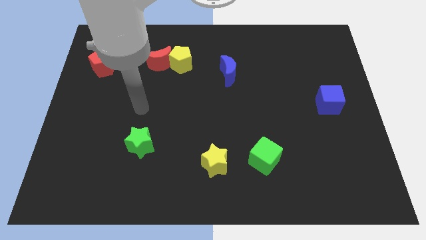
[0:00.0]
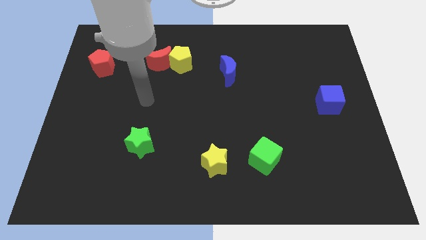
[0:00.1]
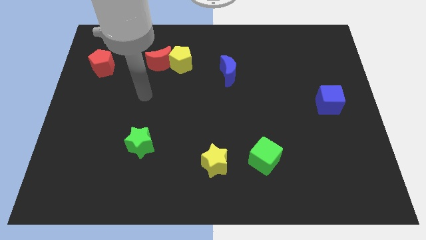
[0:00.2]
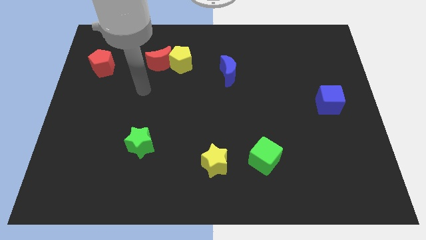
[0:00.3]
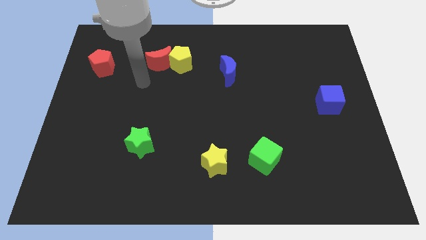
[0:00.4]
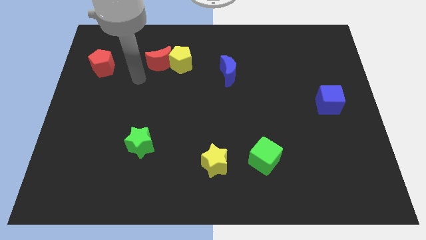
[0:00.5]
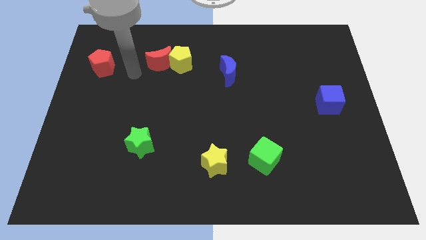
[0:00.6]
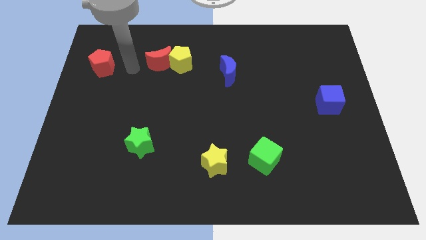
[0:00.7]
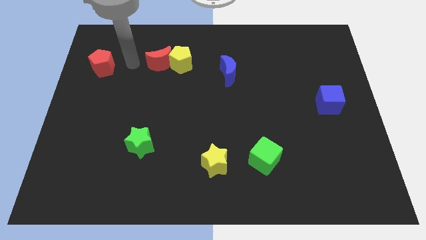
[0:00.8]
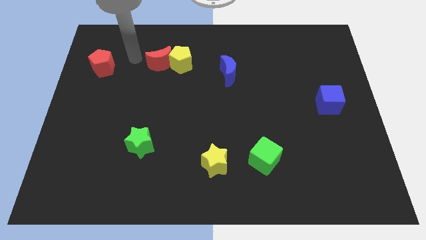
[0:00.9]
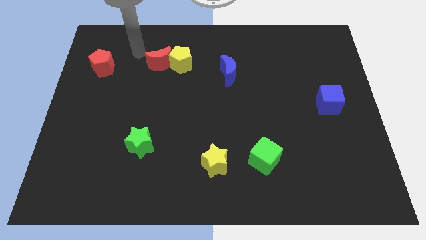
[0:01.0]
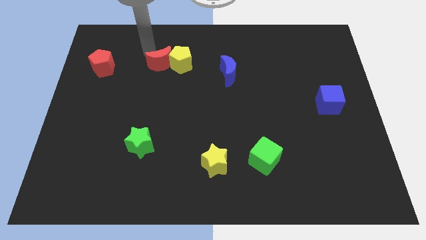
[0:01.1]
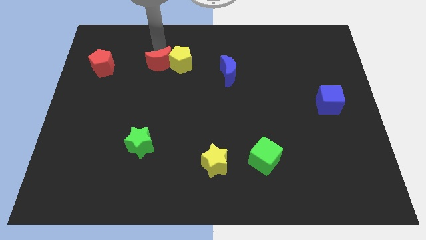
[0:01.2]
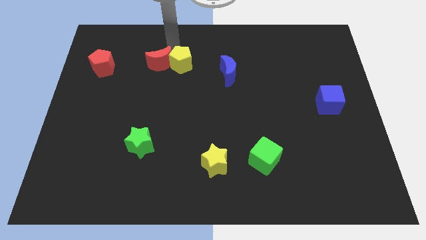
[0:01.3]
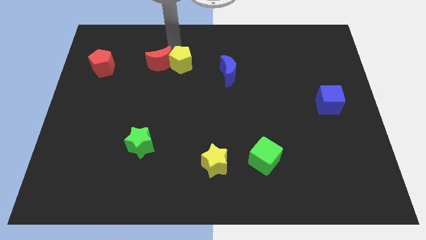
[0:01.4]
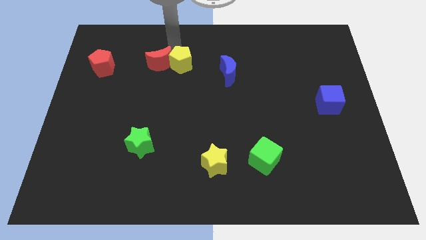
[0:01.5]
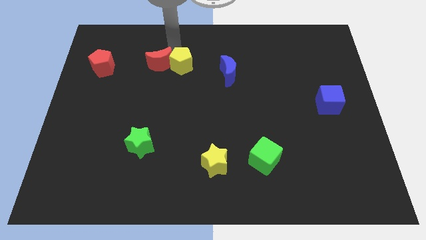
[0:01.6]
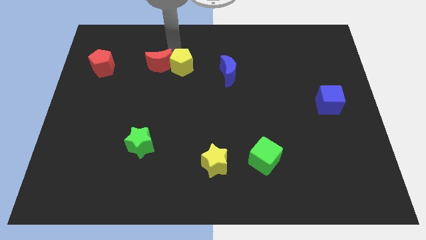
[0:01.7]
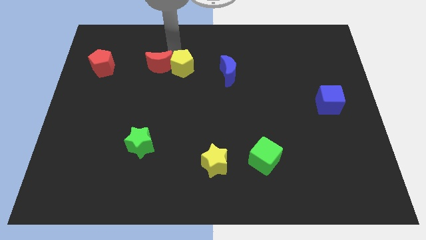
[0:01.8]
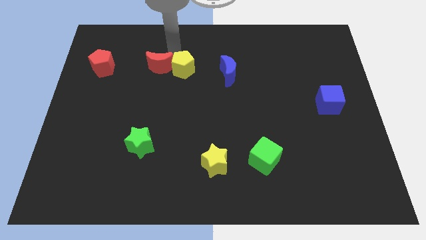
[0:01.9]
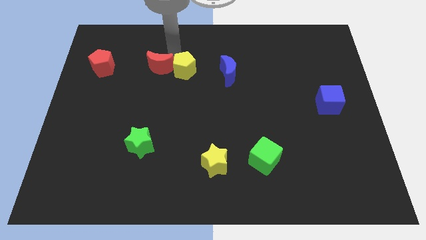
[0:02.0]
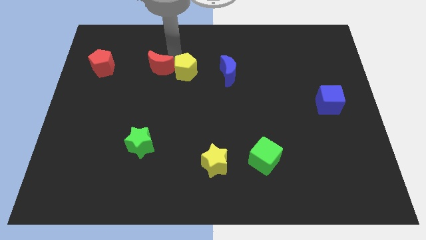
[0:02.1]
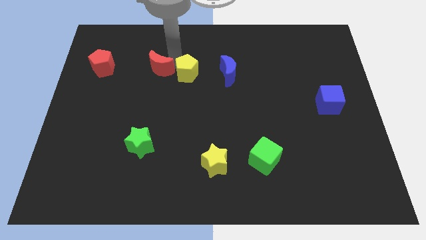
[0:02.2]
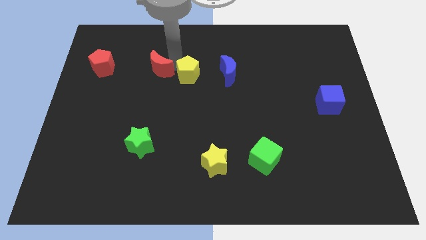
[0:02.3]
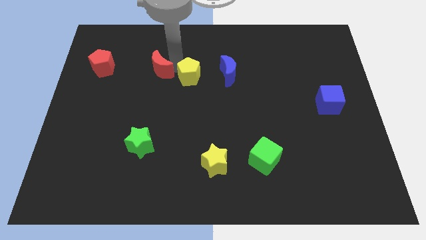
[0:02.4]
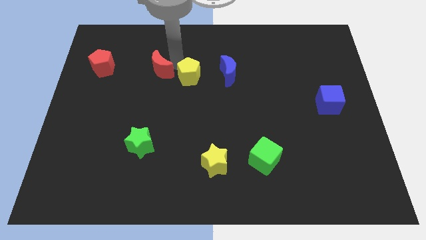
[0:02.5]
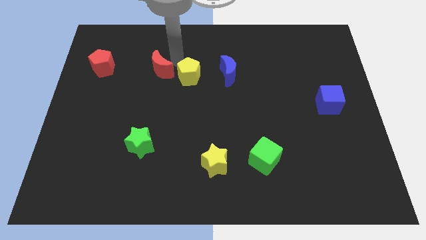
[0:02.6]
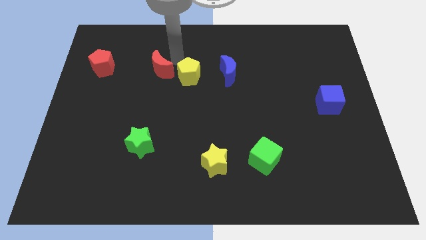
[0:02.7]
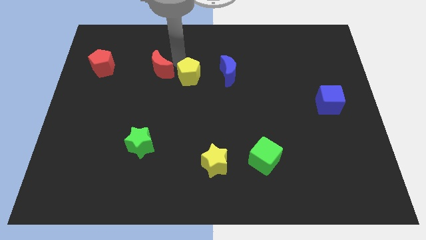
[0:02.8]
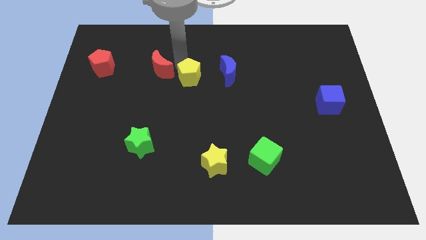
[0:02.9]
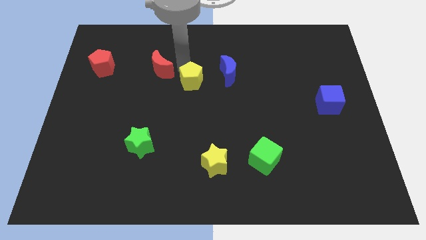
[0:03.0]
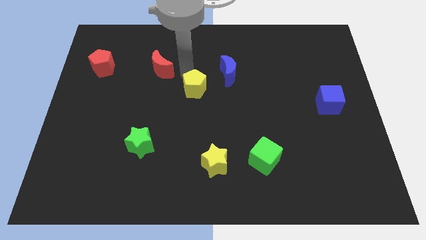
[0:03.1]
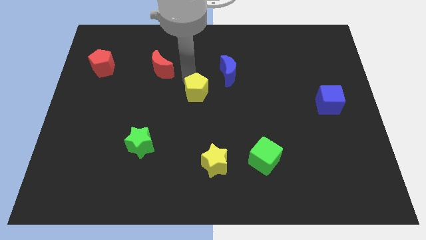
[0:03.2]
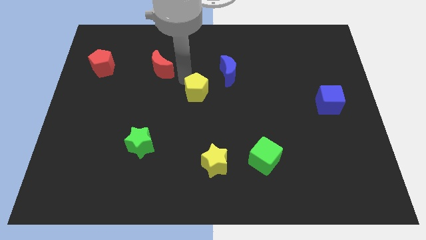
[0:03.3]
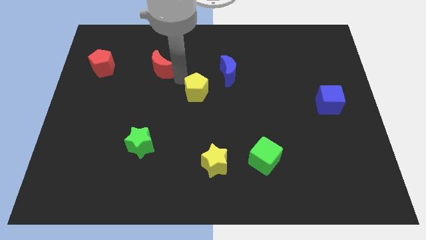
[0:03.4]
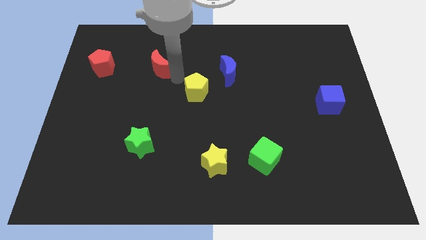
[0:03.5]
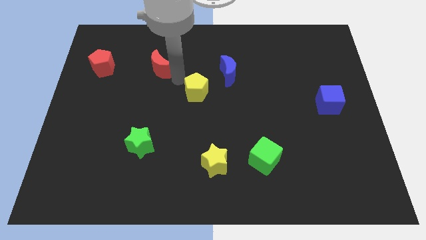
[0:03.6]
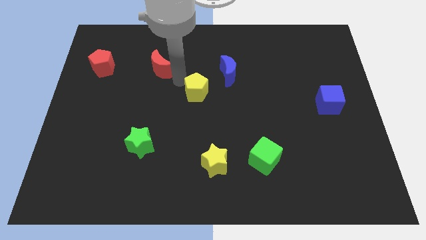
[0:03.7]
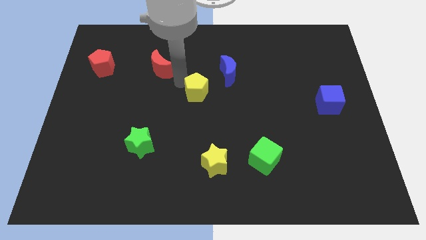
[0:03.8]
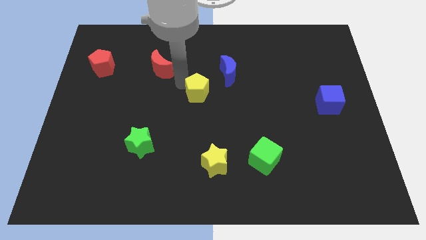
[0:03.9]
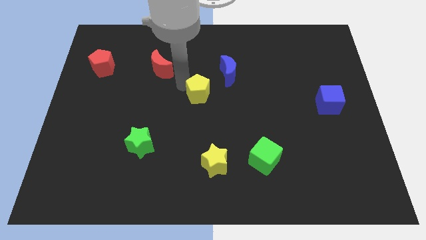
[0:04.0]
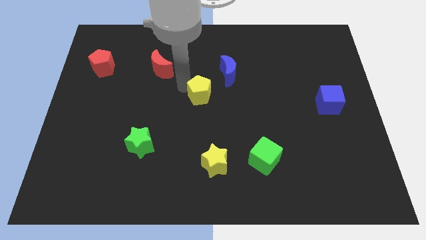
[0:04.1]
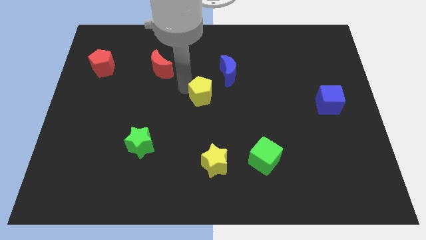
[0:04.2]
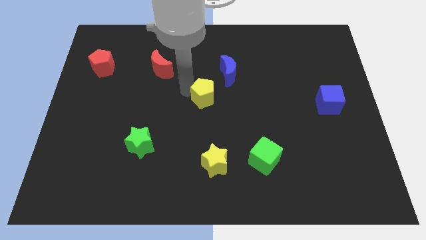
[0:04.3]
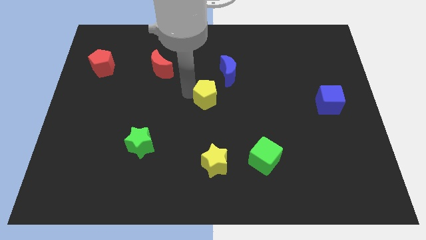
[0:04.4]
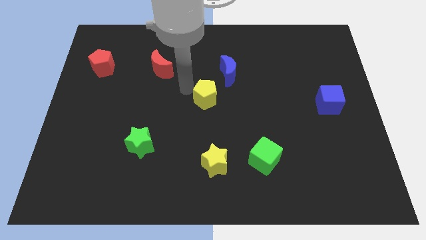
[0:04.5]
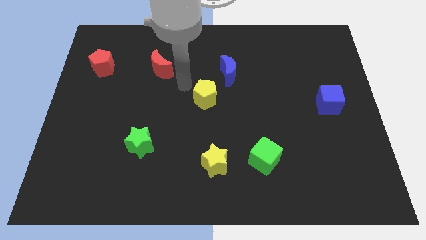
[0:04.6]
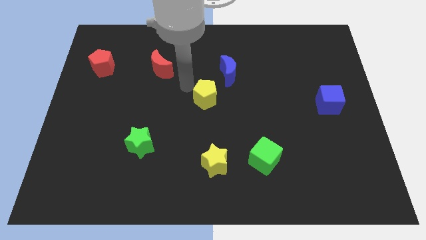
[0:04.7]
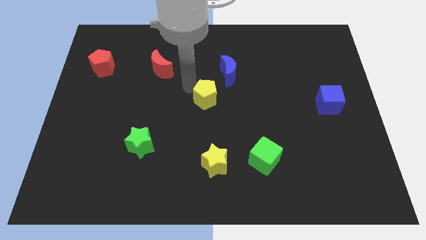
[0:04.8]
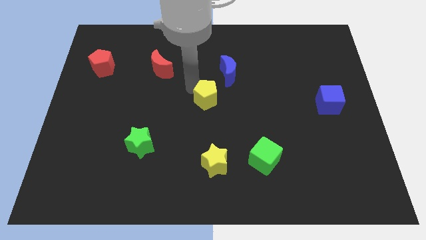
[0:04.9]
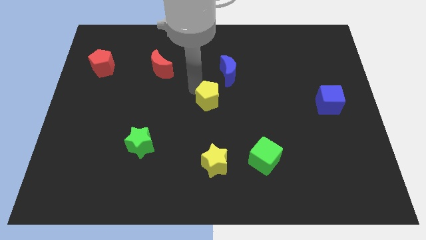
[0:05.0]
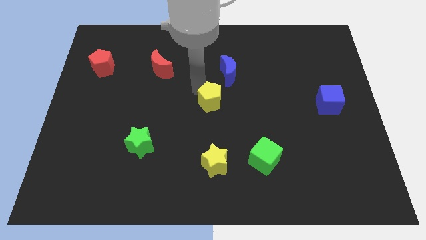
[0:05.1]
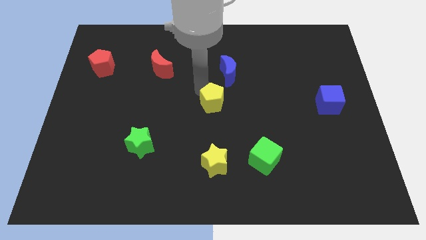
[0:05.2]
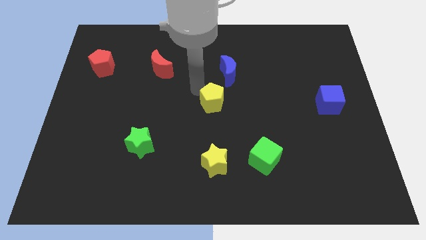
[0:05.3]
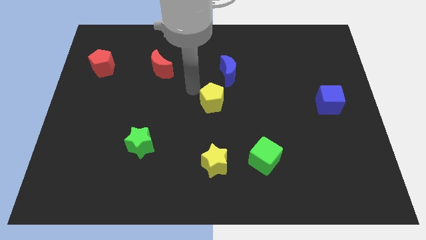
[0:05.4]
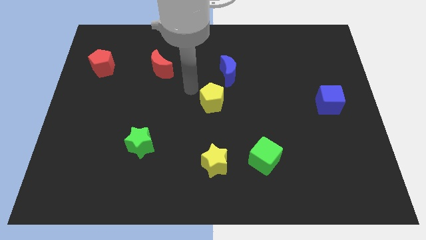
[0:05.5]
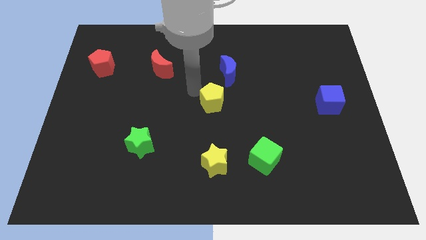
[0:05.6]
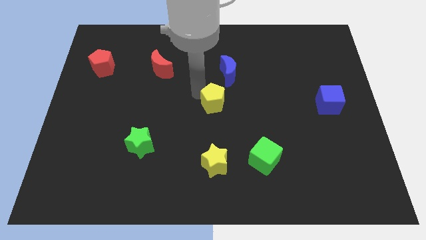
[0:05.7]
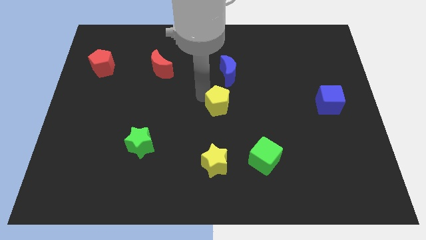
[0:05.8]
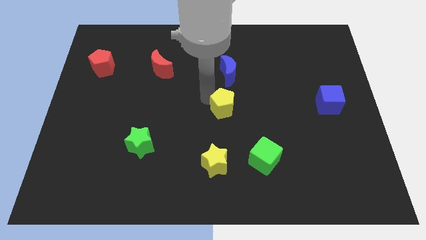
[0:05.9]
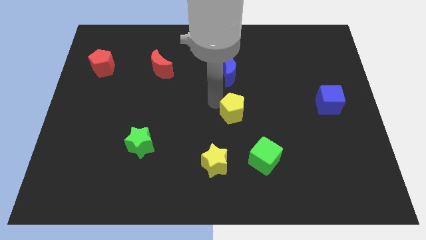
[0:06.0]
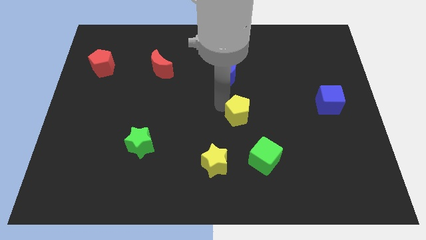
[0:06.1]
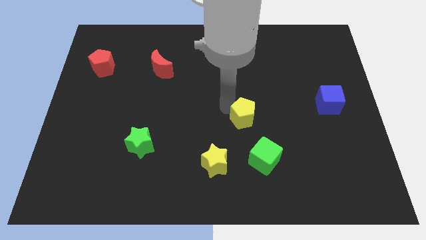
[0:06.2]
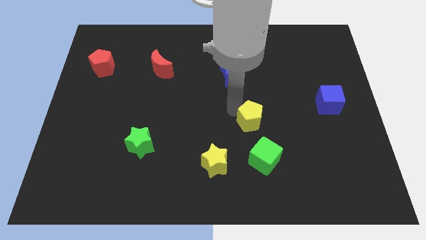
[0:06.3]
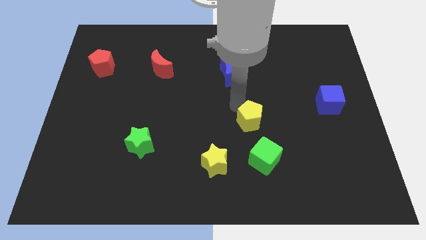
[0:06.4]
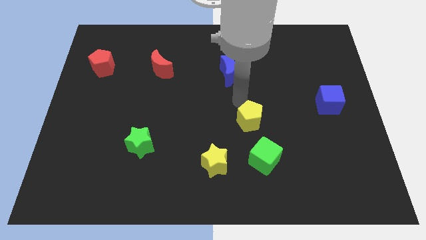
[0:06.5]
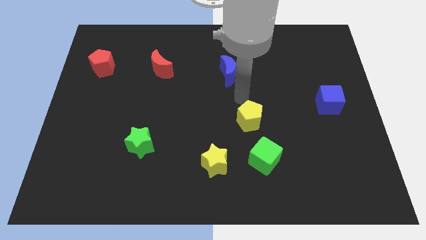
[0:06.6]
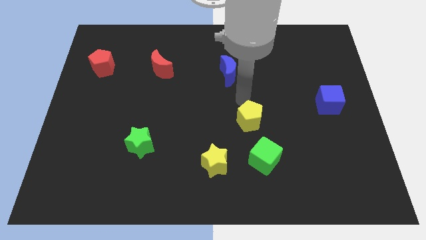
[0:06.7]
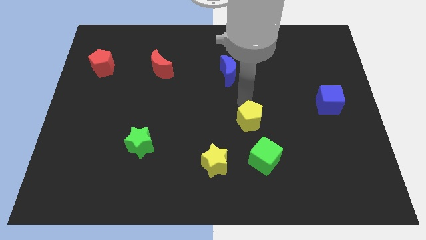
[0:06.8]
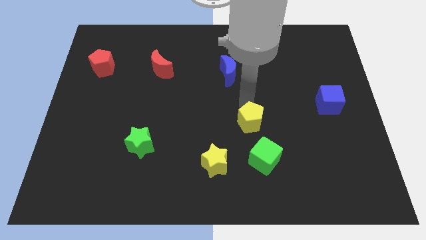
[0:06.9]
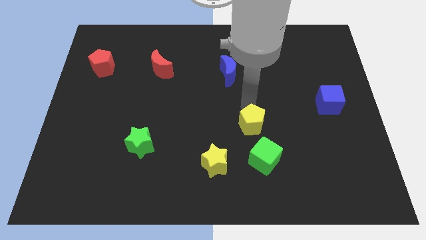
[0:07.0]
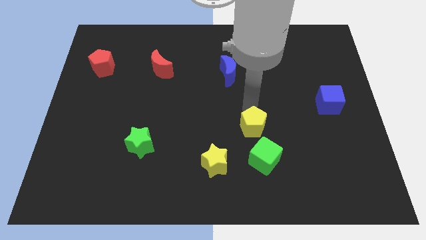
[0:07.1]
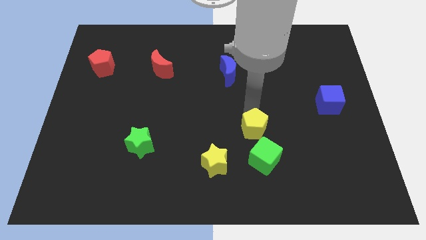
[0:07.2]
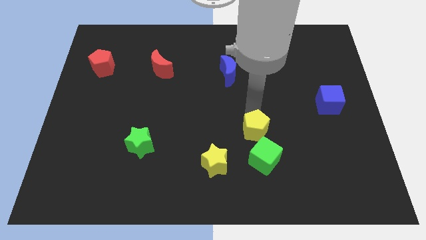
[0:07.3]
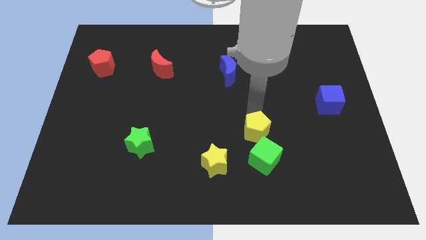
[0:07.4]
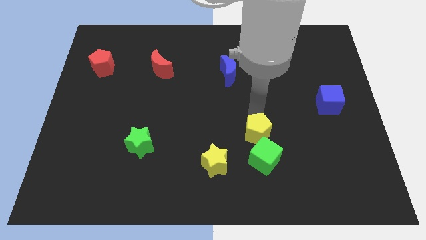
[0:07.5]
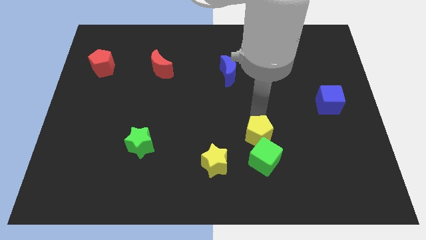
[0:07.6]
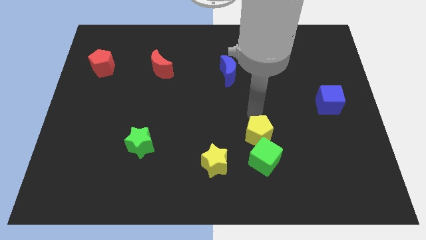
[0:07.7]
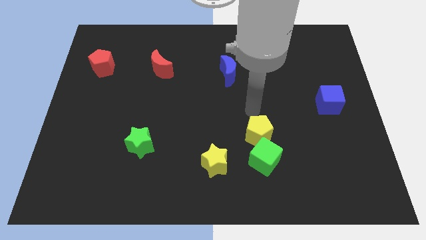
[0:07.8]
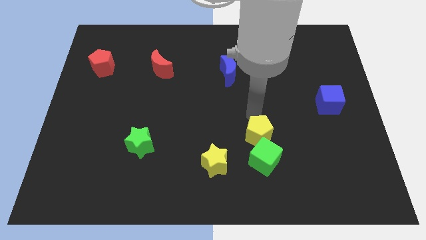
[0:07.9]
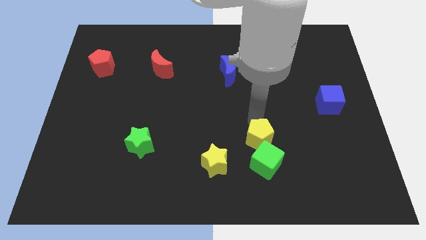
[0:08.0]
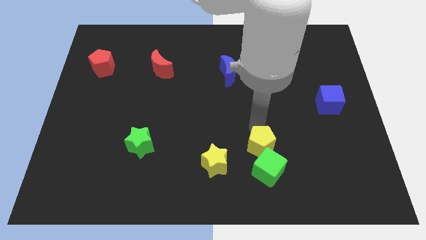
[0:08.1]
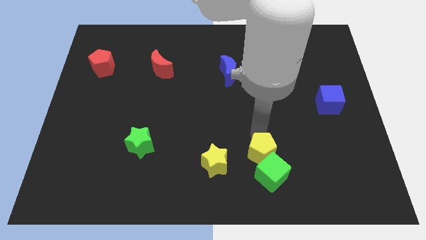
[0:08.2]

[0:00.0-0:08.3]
slide the yellow pentagon towards the green cube
